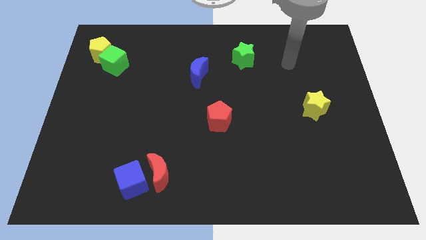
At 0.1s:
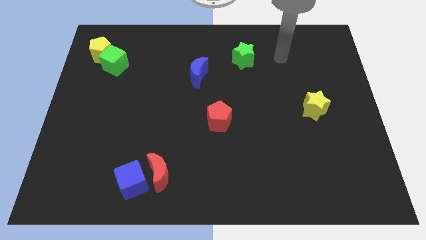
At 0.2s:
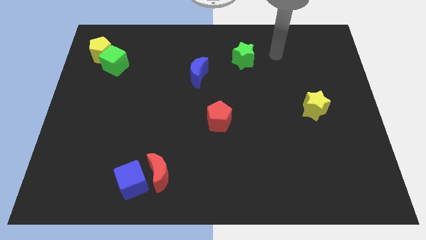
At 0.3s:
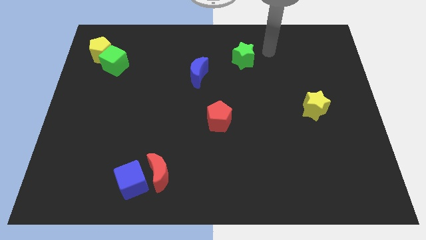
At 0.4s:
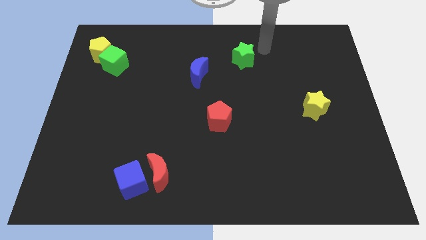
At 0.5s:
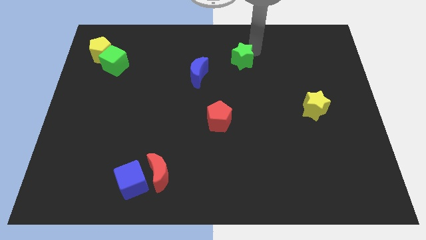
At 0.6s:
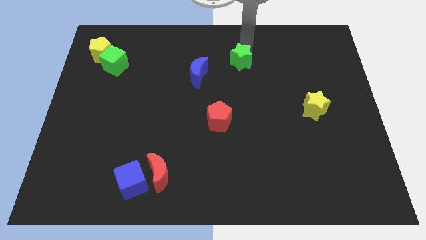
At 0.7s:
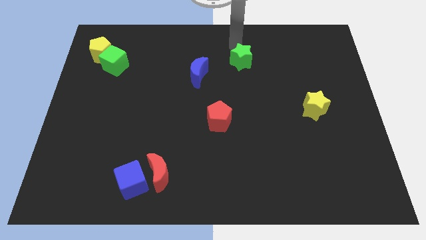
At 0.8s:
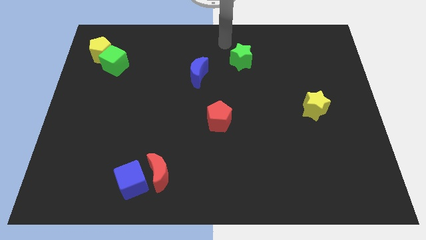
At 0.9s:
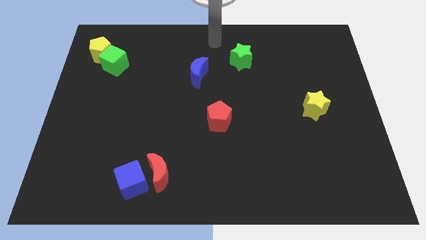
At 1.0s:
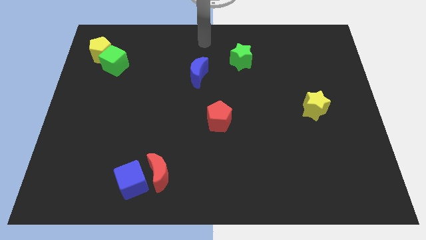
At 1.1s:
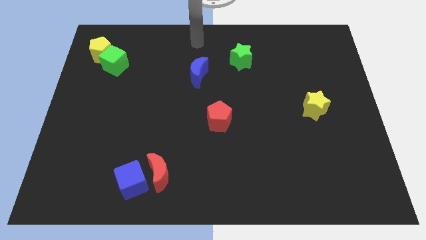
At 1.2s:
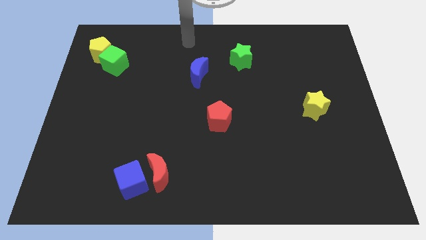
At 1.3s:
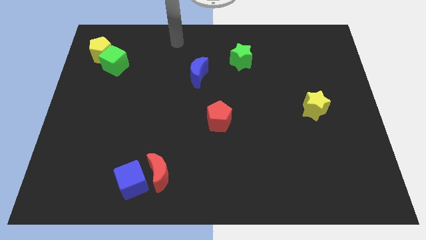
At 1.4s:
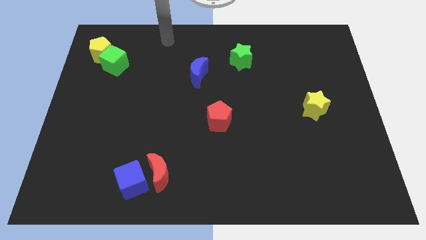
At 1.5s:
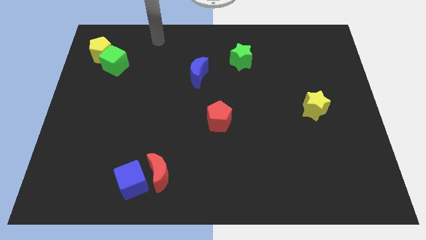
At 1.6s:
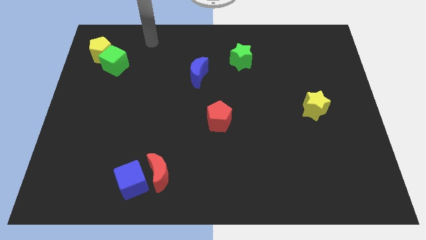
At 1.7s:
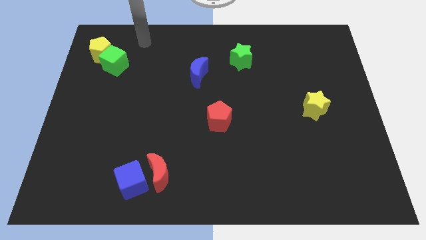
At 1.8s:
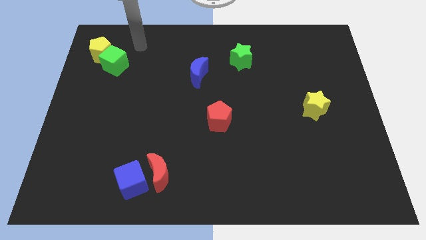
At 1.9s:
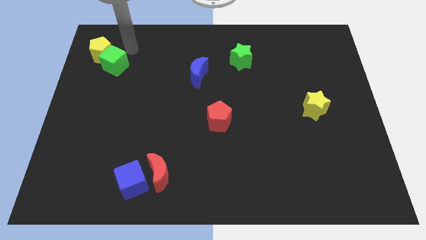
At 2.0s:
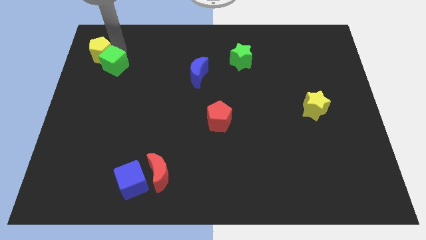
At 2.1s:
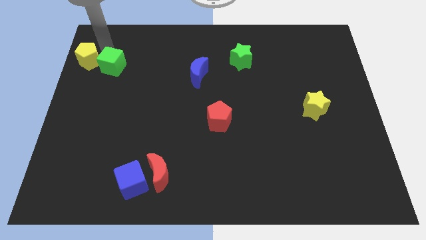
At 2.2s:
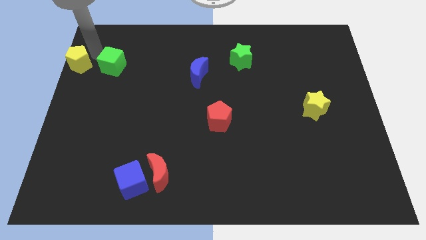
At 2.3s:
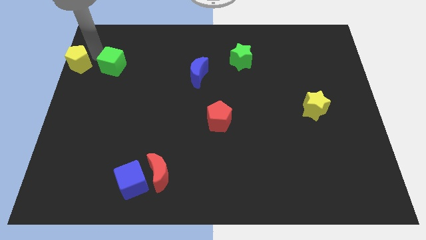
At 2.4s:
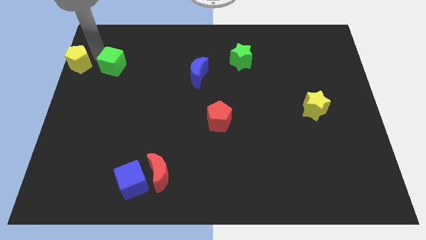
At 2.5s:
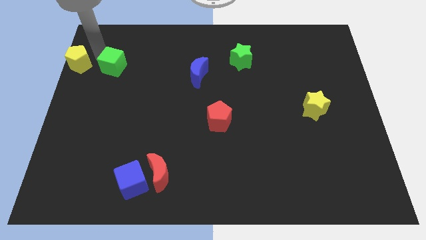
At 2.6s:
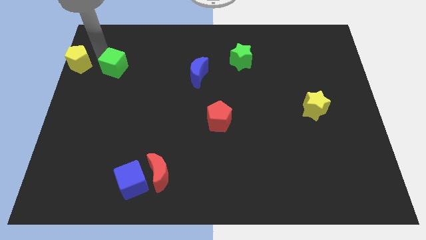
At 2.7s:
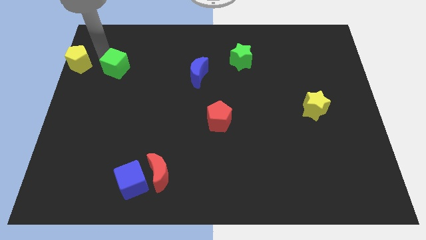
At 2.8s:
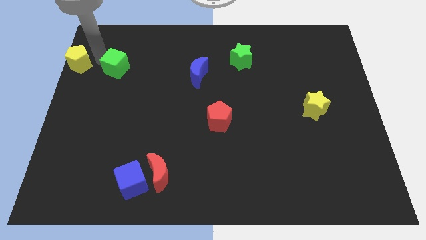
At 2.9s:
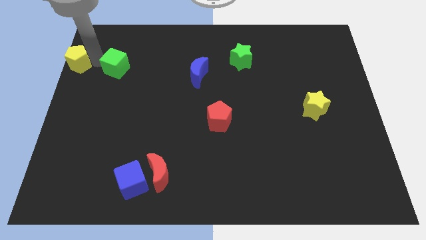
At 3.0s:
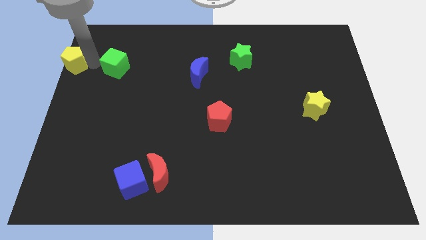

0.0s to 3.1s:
pull the green cube apart from the yellow pentagon

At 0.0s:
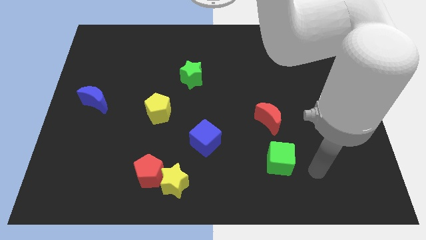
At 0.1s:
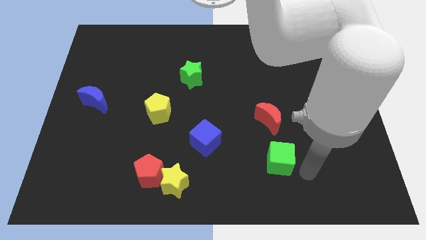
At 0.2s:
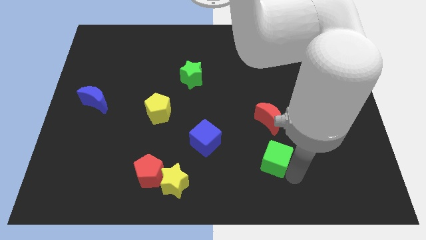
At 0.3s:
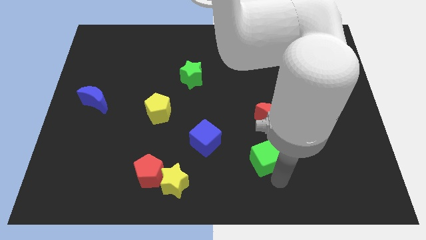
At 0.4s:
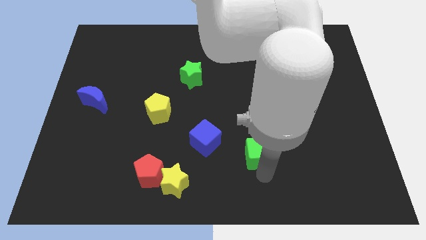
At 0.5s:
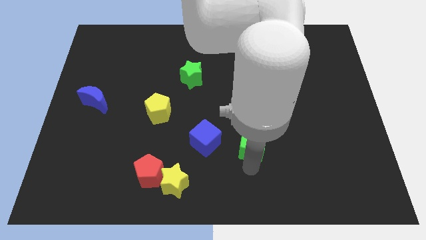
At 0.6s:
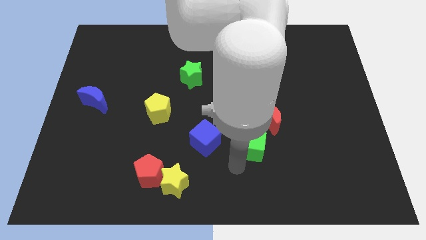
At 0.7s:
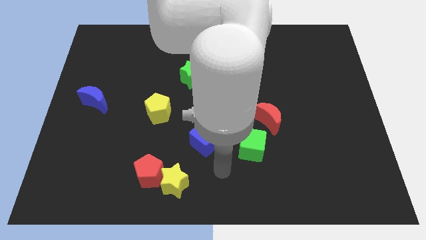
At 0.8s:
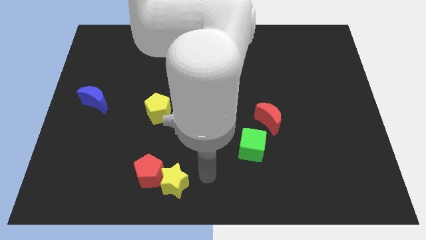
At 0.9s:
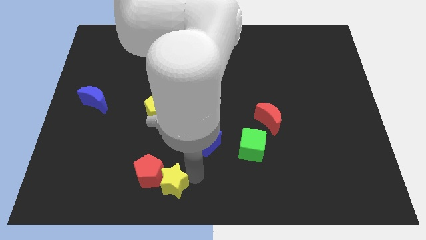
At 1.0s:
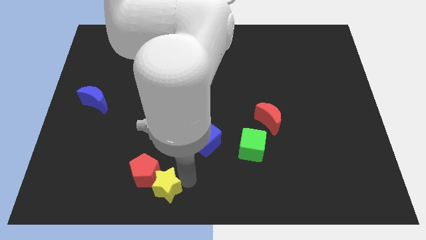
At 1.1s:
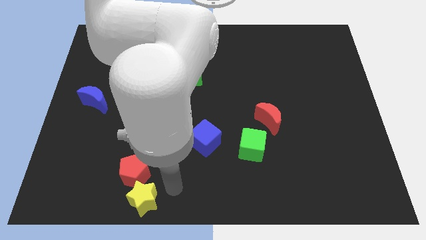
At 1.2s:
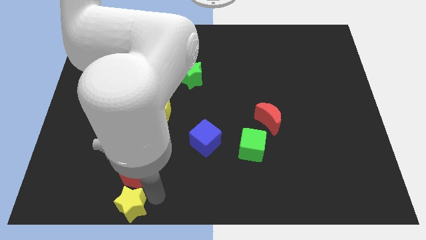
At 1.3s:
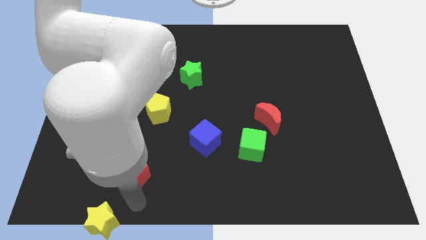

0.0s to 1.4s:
pull the red pentagon apart from the yellow star

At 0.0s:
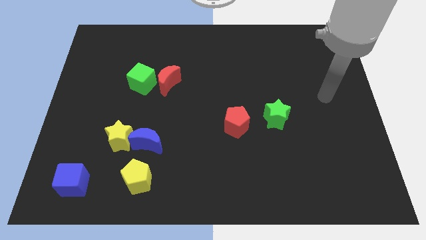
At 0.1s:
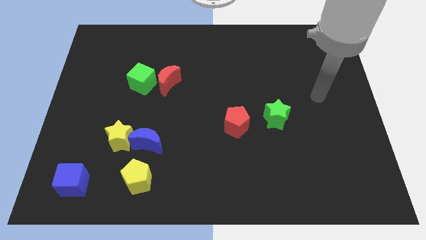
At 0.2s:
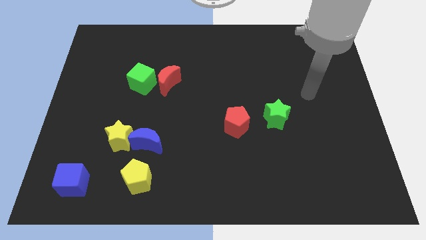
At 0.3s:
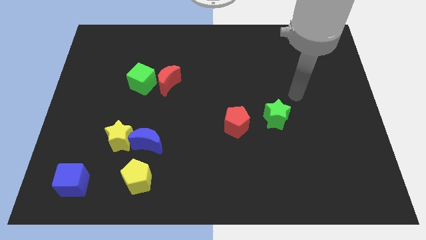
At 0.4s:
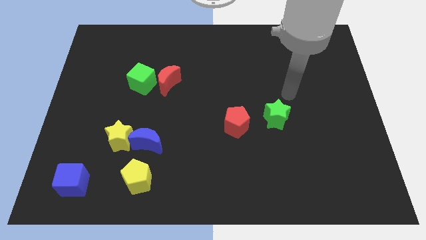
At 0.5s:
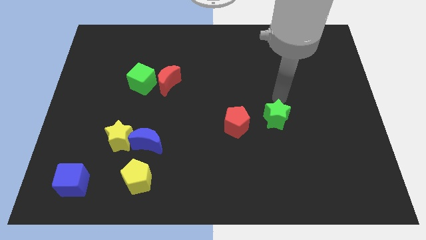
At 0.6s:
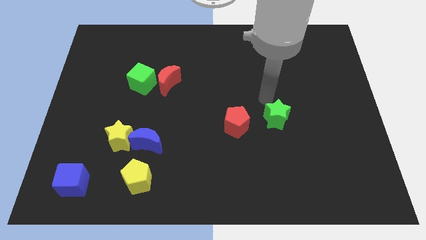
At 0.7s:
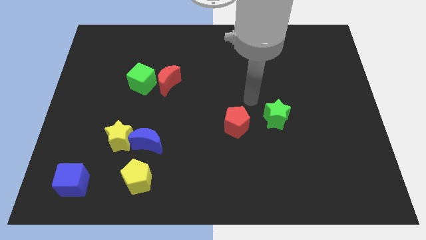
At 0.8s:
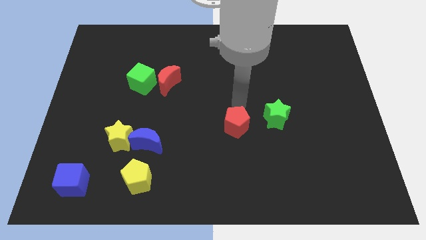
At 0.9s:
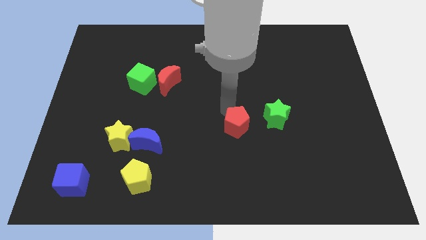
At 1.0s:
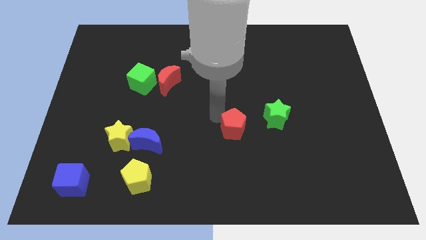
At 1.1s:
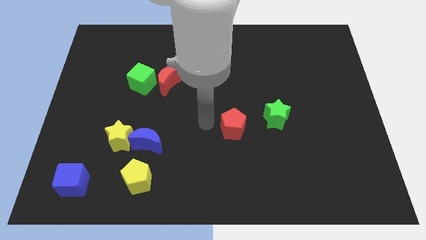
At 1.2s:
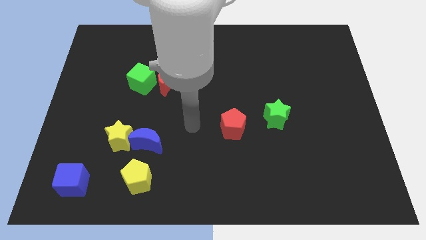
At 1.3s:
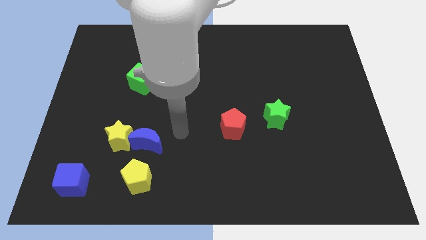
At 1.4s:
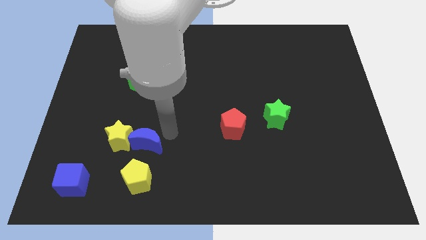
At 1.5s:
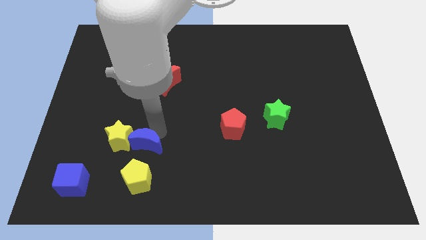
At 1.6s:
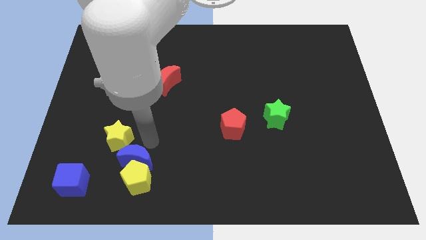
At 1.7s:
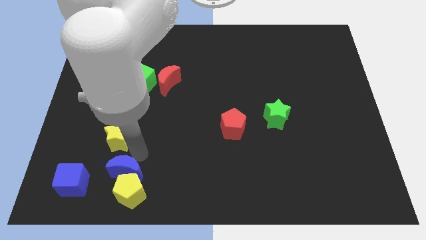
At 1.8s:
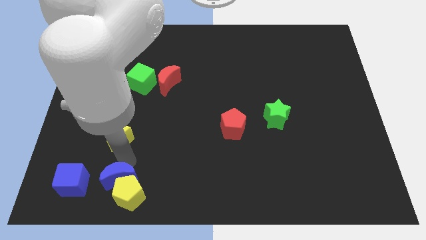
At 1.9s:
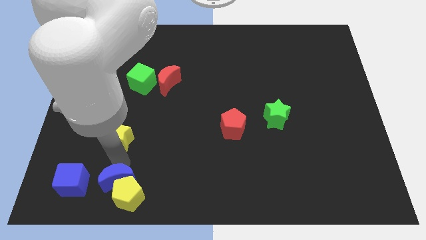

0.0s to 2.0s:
move the yellow star away from the blue moon

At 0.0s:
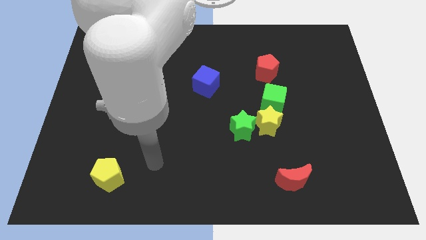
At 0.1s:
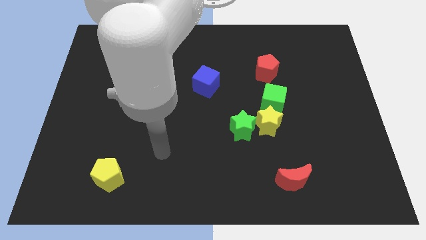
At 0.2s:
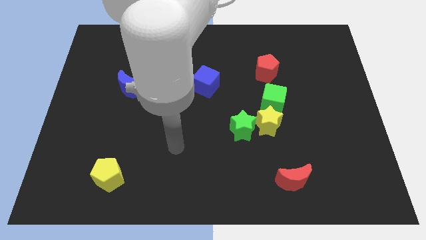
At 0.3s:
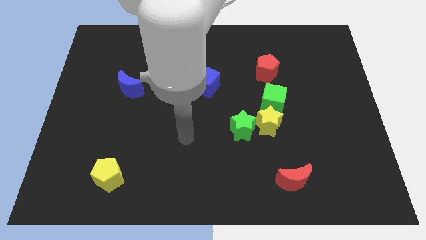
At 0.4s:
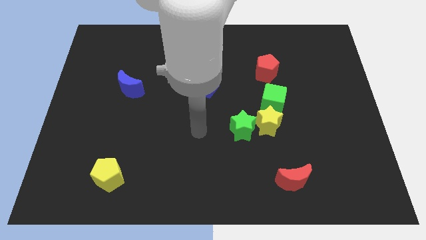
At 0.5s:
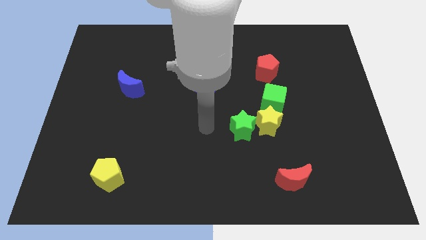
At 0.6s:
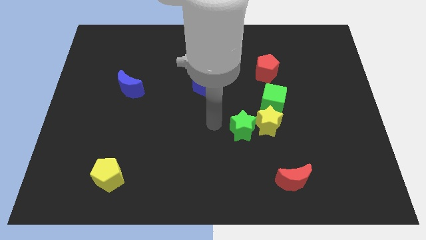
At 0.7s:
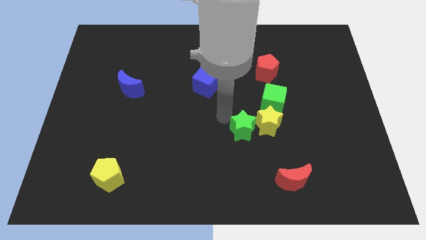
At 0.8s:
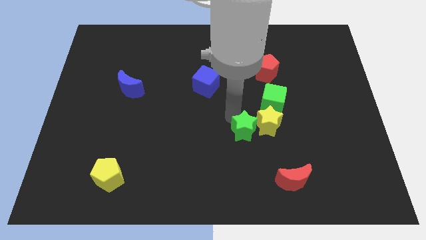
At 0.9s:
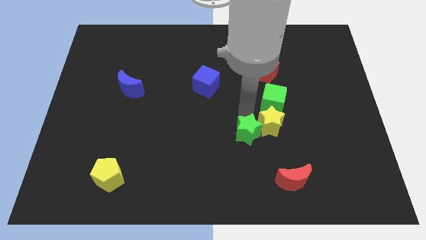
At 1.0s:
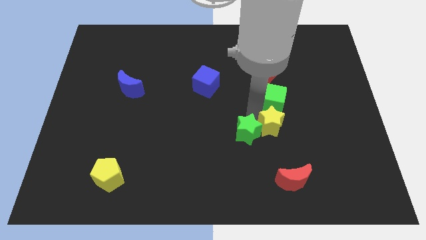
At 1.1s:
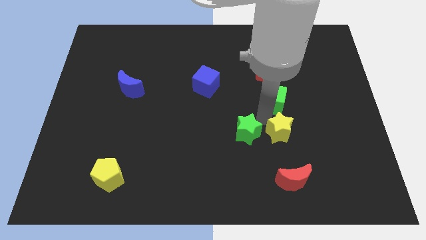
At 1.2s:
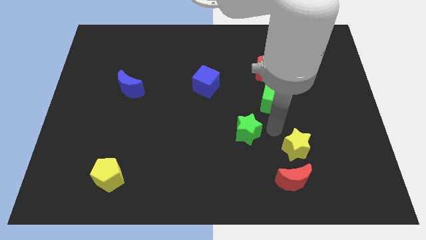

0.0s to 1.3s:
separate the green star from the yellow star

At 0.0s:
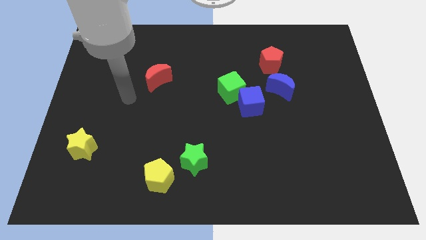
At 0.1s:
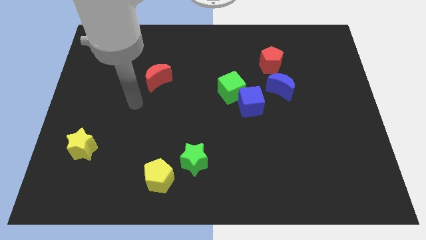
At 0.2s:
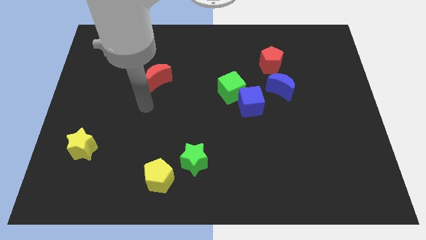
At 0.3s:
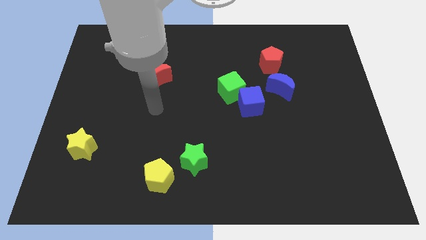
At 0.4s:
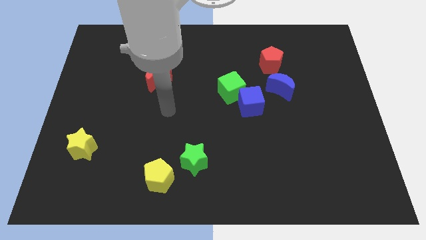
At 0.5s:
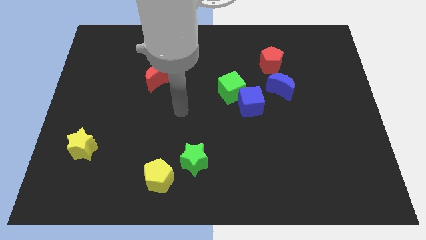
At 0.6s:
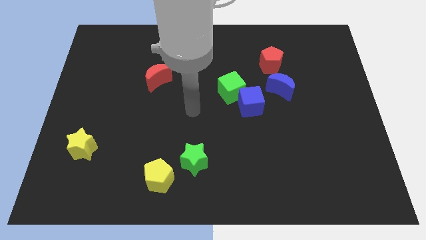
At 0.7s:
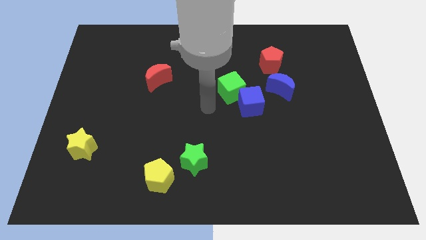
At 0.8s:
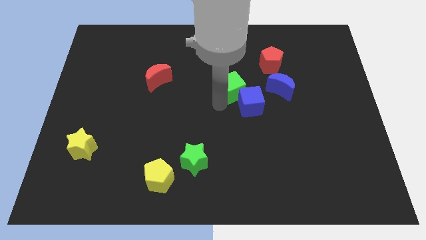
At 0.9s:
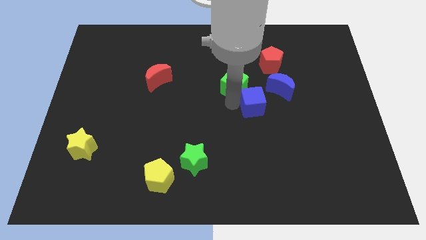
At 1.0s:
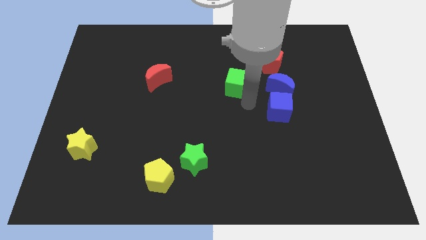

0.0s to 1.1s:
move the green cube away from the blue cube

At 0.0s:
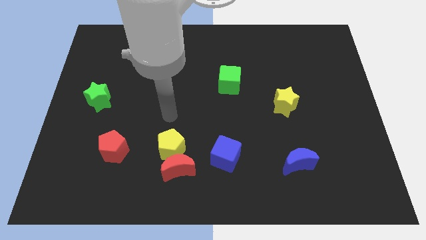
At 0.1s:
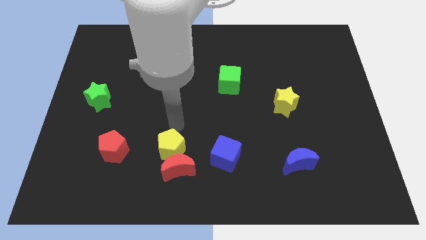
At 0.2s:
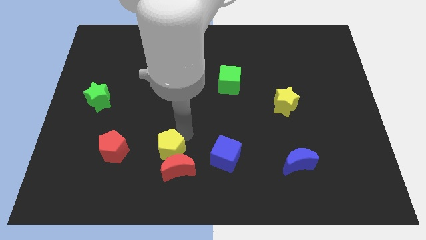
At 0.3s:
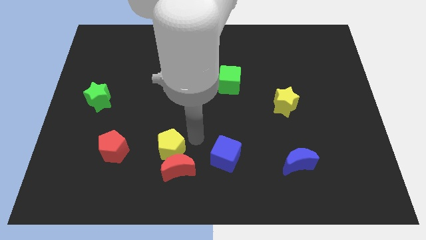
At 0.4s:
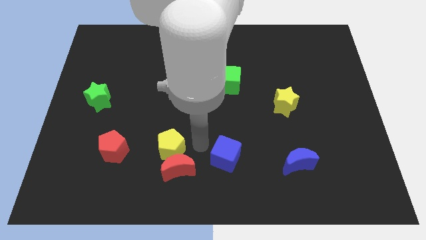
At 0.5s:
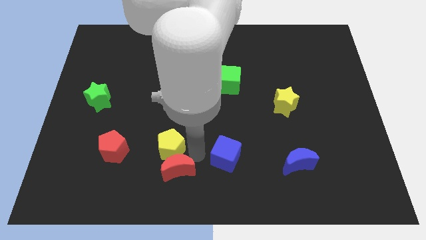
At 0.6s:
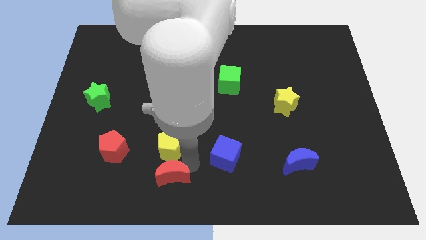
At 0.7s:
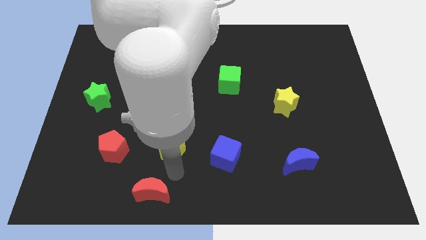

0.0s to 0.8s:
pull the yellow pentagon apart from the red moon
